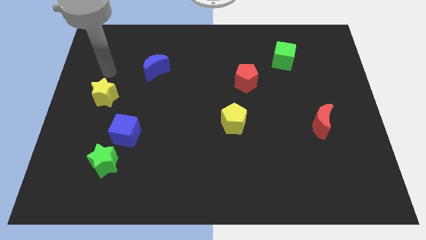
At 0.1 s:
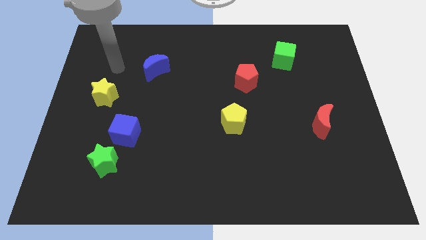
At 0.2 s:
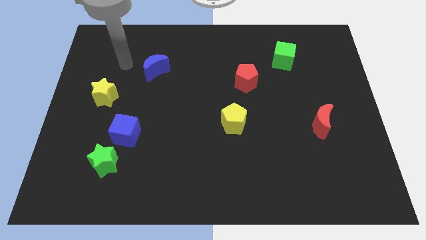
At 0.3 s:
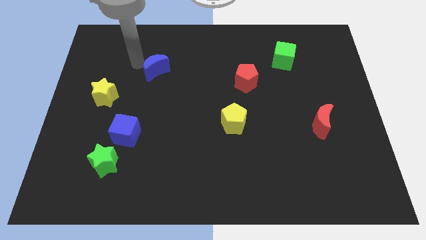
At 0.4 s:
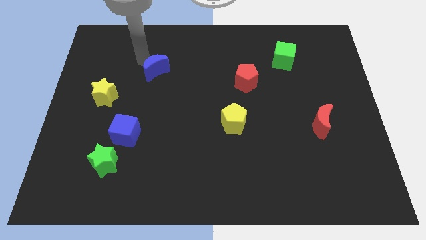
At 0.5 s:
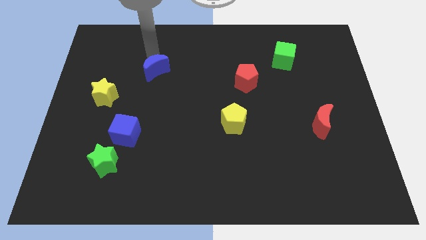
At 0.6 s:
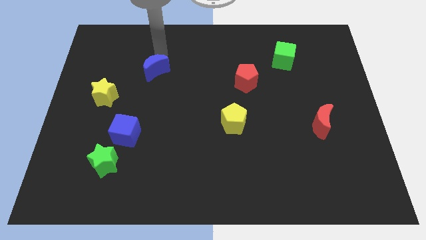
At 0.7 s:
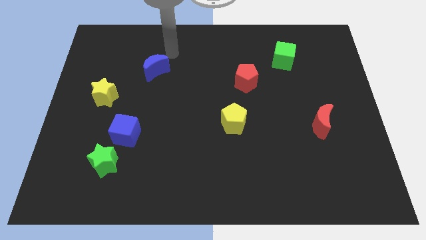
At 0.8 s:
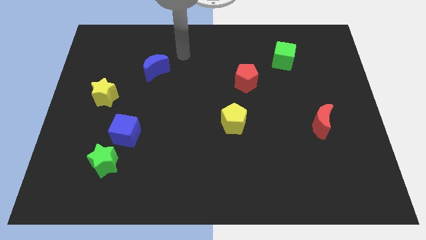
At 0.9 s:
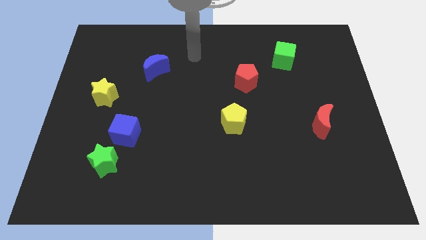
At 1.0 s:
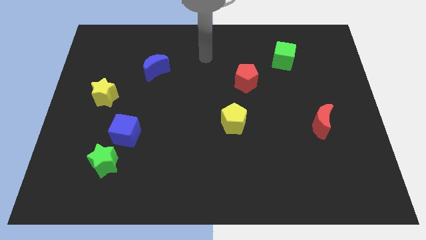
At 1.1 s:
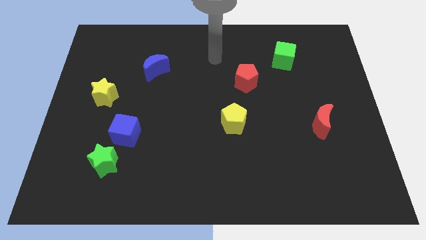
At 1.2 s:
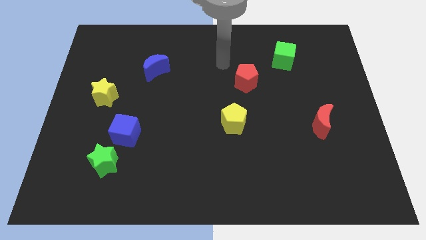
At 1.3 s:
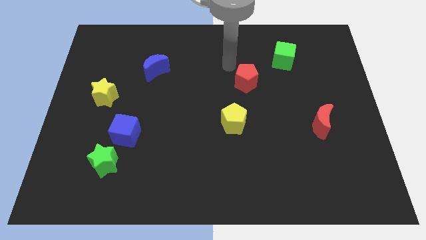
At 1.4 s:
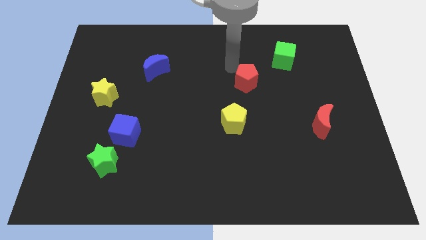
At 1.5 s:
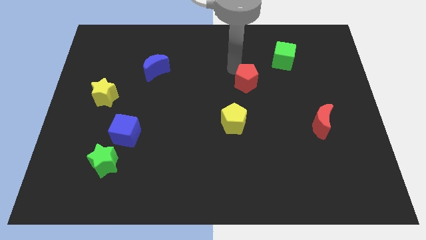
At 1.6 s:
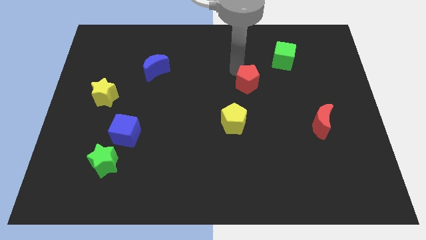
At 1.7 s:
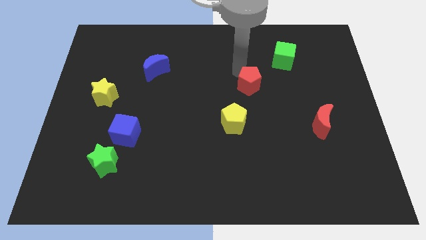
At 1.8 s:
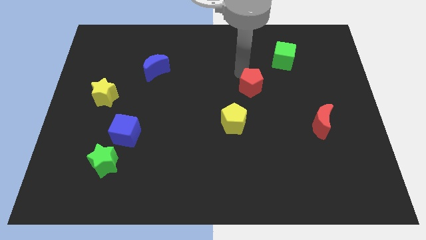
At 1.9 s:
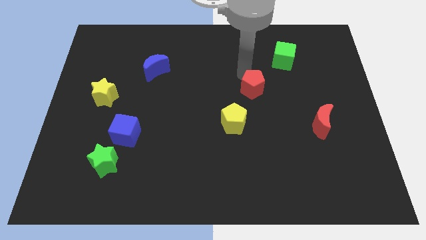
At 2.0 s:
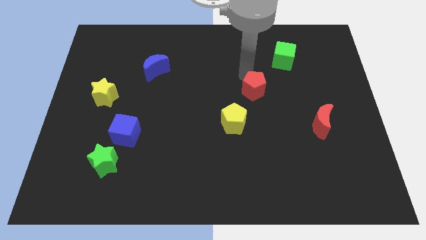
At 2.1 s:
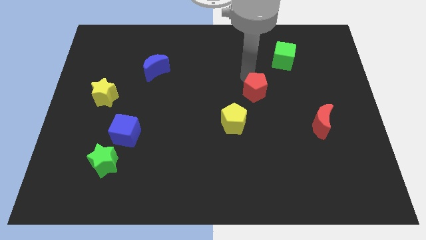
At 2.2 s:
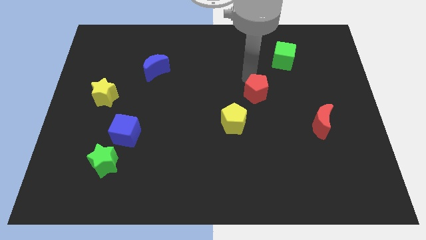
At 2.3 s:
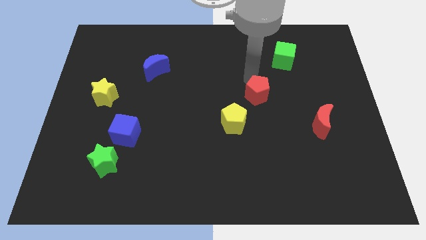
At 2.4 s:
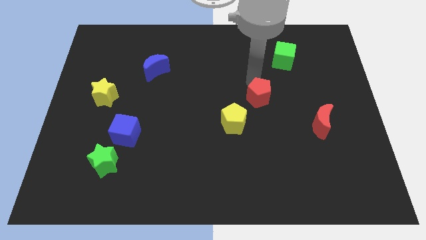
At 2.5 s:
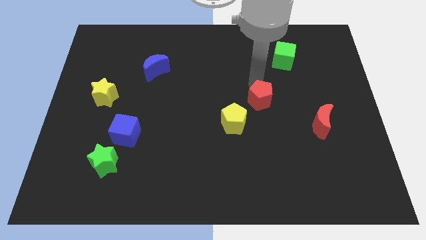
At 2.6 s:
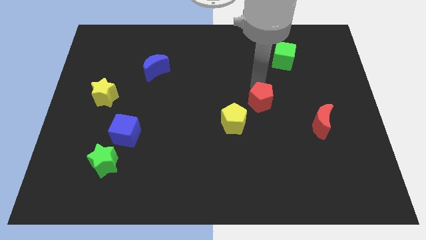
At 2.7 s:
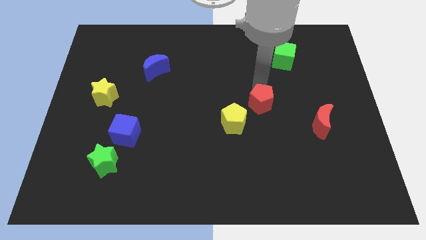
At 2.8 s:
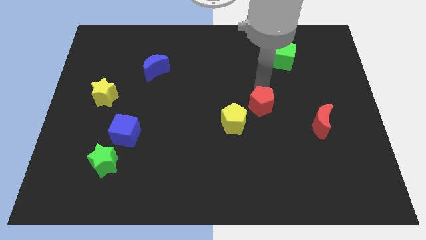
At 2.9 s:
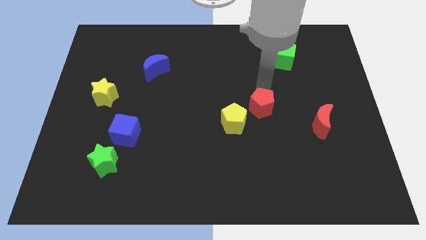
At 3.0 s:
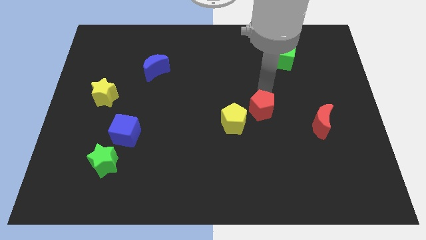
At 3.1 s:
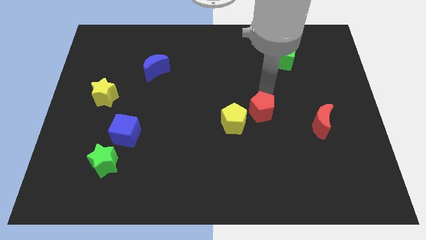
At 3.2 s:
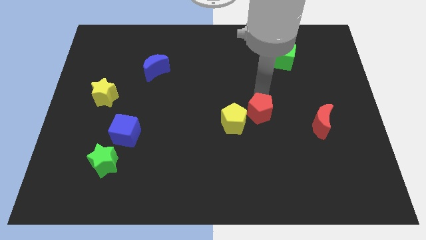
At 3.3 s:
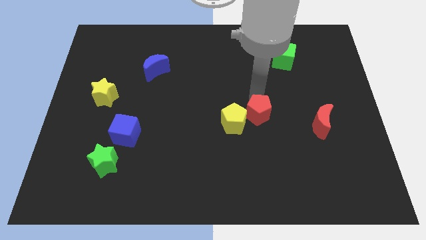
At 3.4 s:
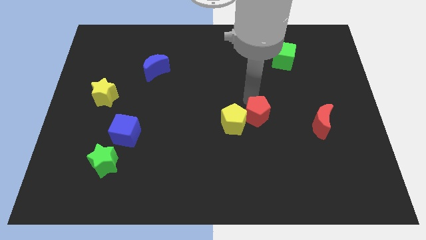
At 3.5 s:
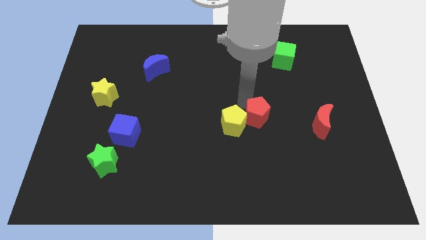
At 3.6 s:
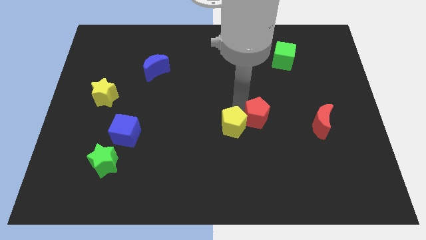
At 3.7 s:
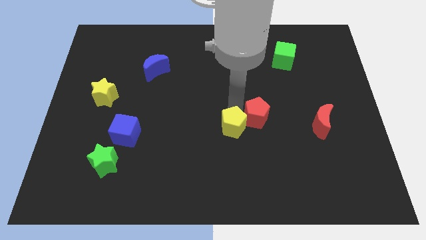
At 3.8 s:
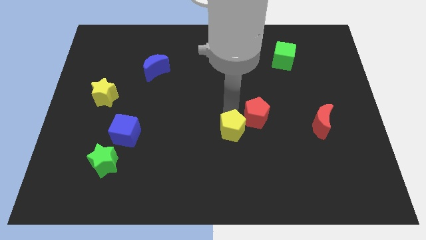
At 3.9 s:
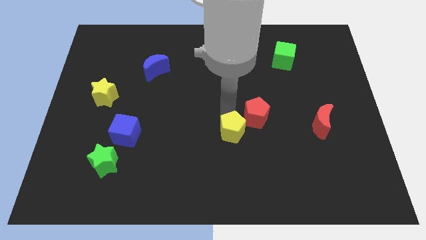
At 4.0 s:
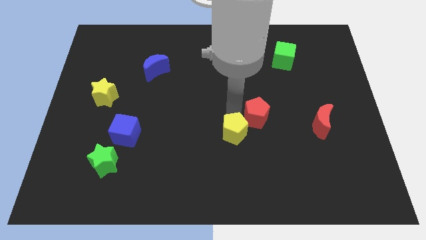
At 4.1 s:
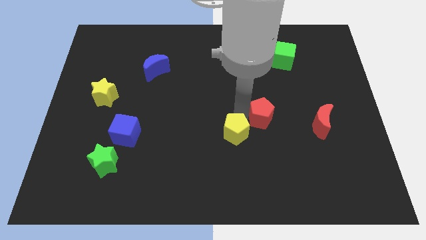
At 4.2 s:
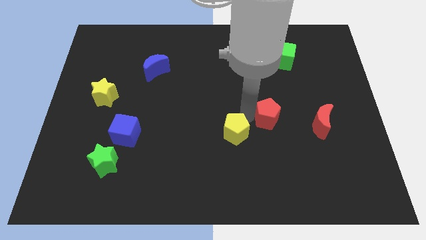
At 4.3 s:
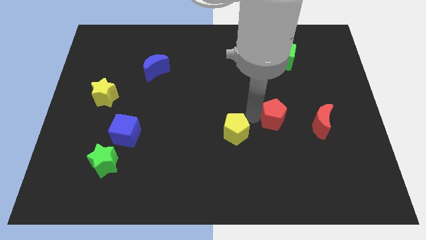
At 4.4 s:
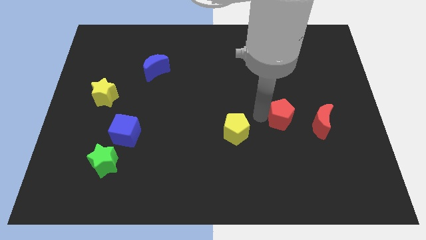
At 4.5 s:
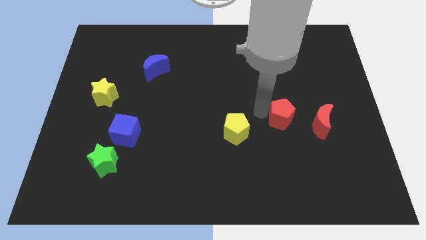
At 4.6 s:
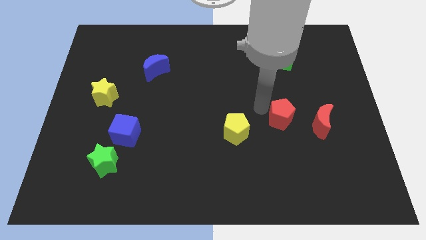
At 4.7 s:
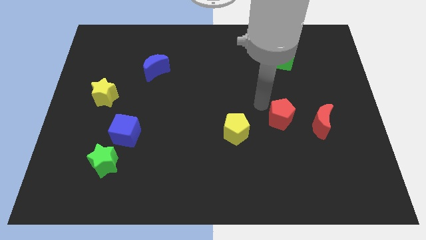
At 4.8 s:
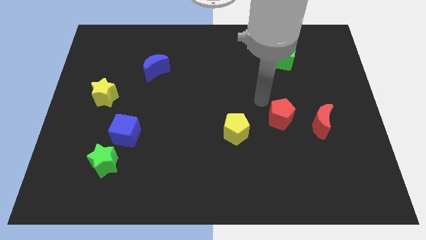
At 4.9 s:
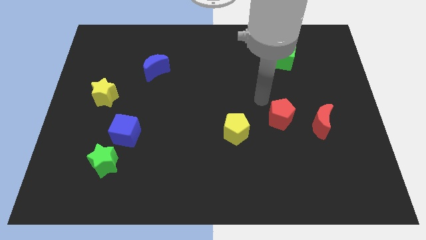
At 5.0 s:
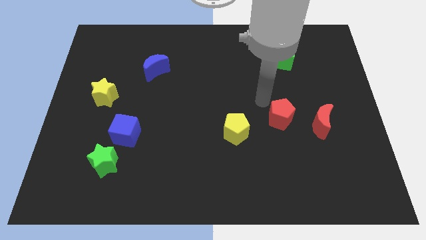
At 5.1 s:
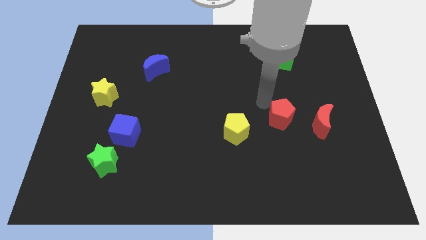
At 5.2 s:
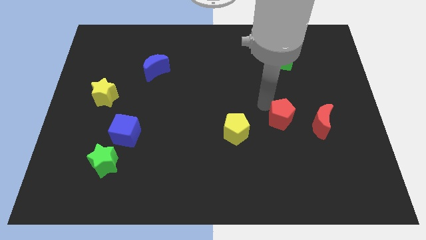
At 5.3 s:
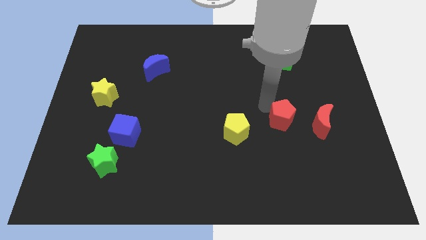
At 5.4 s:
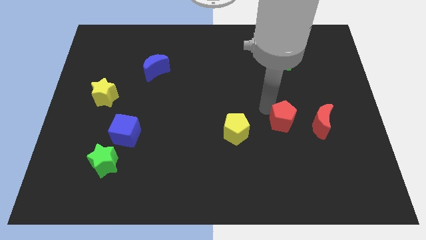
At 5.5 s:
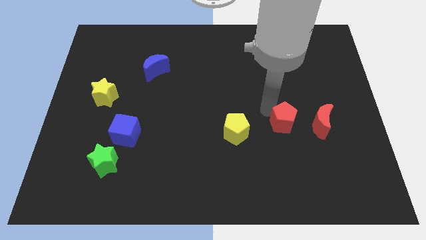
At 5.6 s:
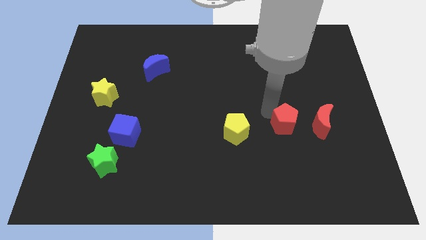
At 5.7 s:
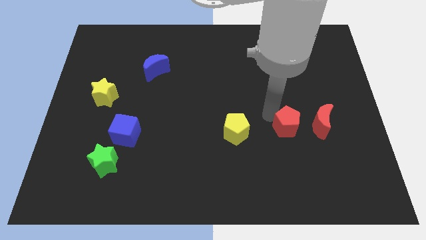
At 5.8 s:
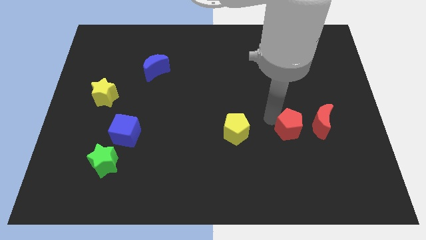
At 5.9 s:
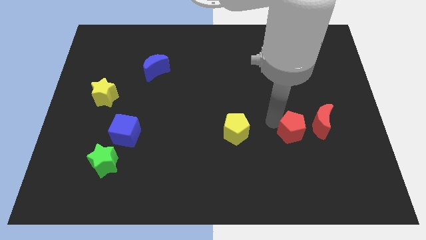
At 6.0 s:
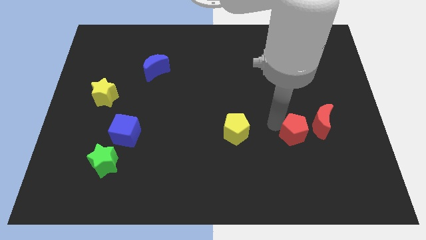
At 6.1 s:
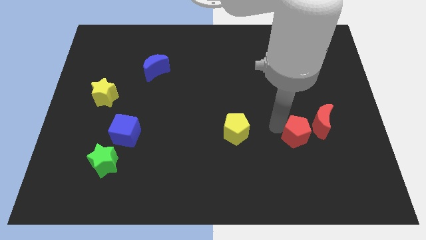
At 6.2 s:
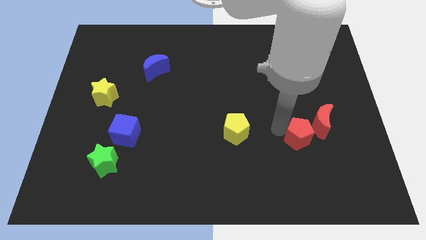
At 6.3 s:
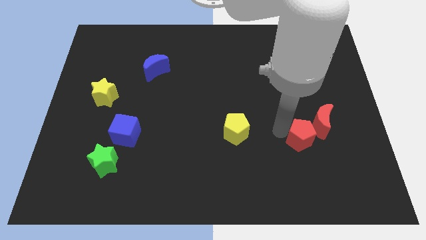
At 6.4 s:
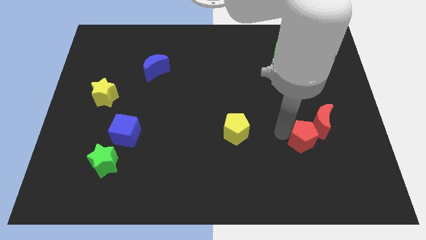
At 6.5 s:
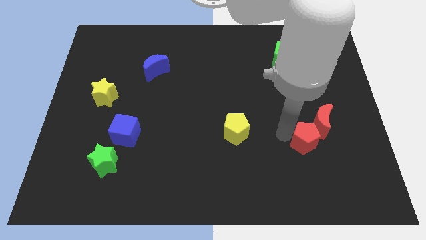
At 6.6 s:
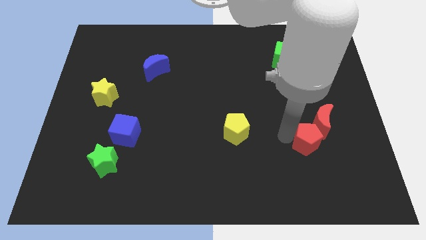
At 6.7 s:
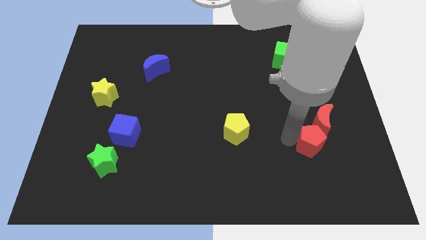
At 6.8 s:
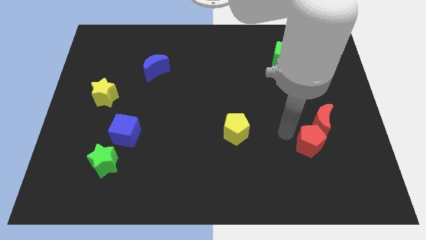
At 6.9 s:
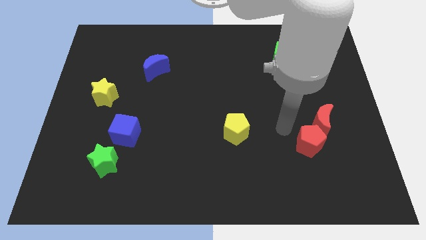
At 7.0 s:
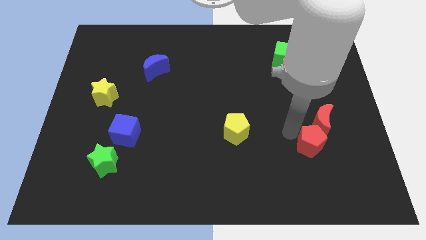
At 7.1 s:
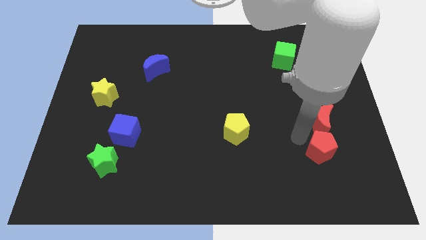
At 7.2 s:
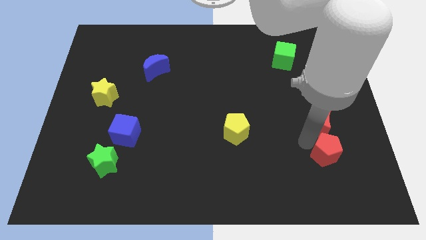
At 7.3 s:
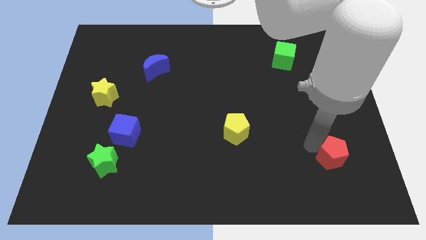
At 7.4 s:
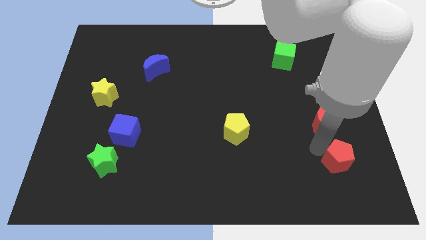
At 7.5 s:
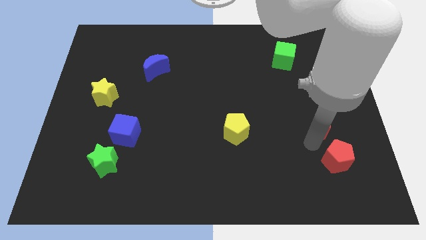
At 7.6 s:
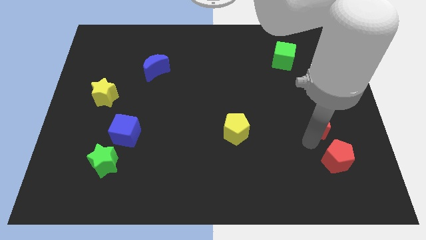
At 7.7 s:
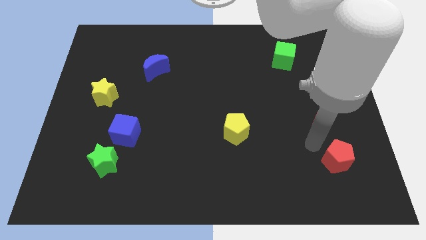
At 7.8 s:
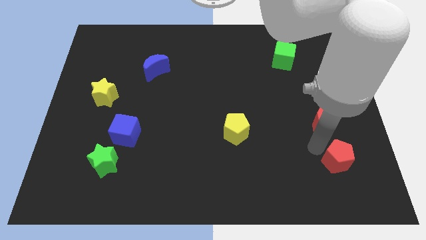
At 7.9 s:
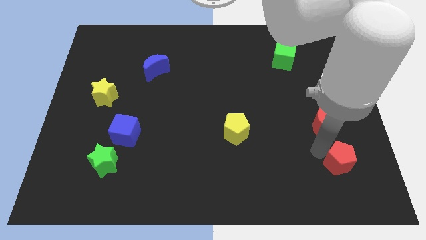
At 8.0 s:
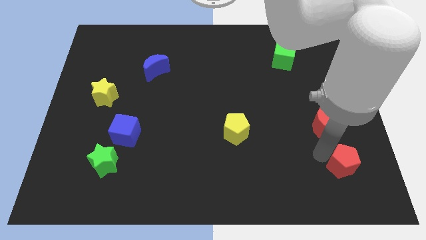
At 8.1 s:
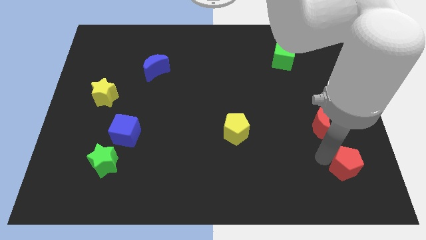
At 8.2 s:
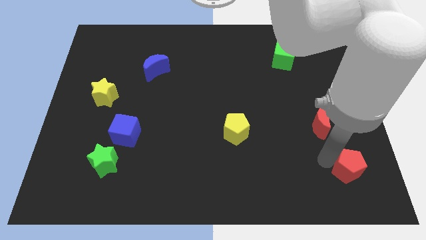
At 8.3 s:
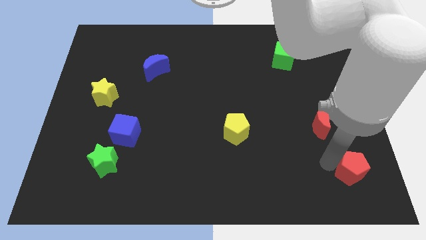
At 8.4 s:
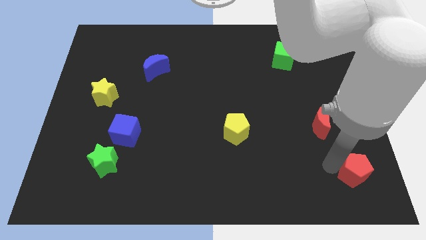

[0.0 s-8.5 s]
push the red pentagon to the lower right corner
